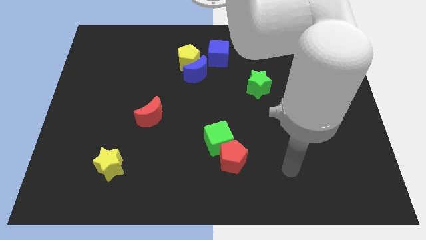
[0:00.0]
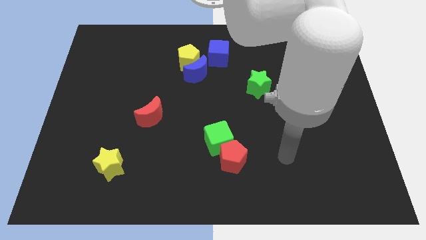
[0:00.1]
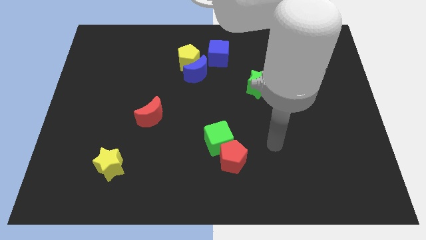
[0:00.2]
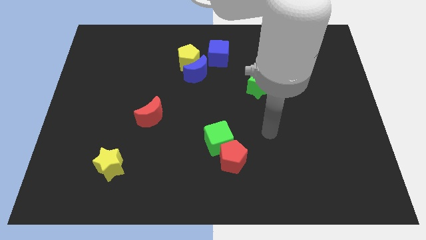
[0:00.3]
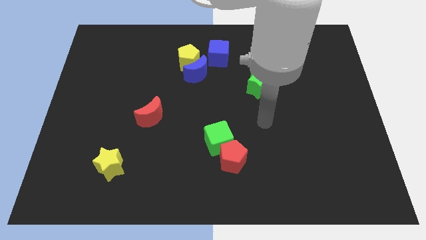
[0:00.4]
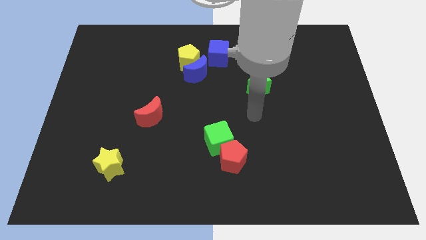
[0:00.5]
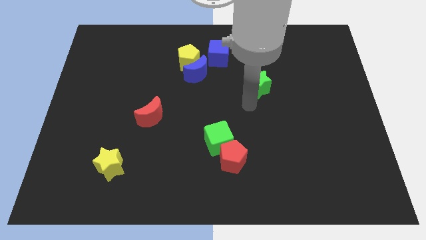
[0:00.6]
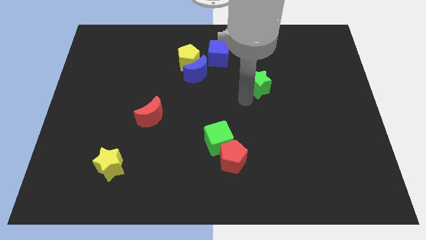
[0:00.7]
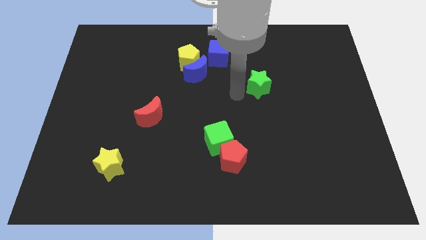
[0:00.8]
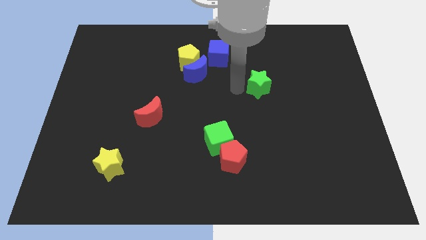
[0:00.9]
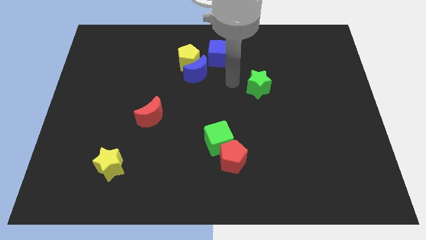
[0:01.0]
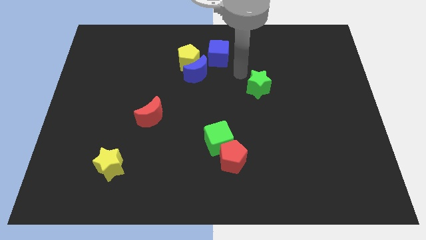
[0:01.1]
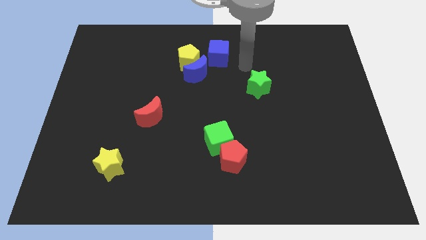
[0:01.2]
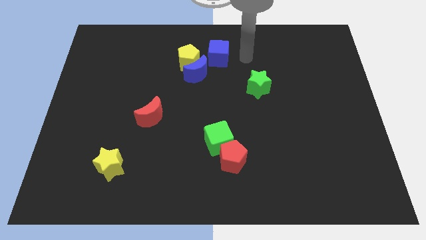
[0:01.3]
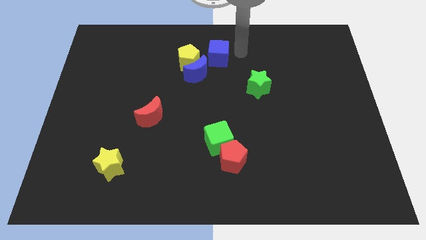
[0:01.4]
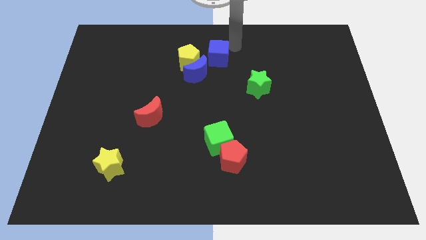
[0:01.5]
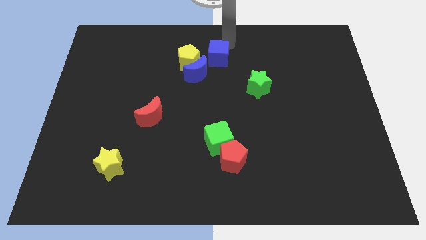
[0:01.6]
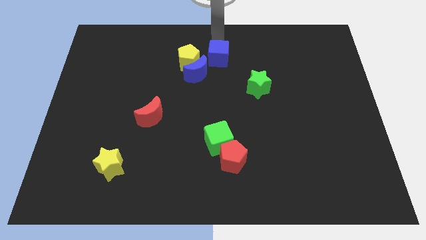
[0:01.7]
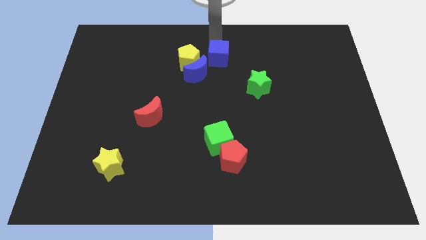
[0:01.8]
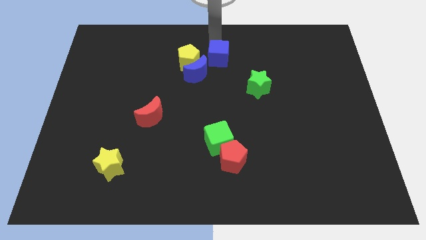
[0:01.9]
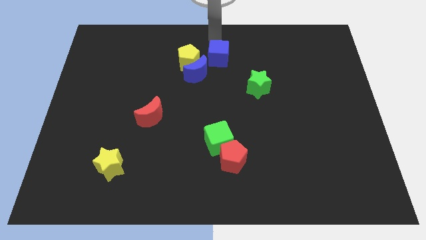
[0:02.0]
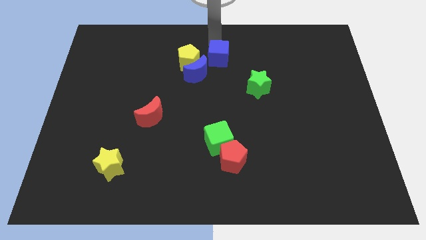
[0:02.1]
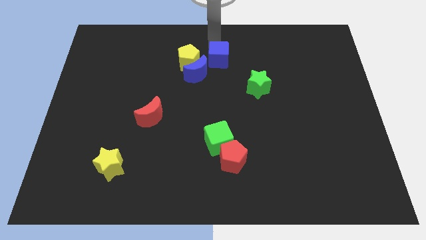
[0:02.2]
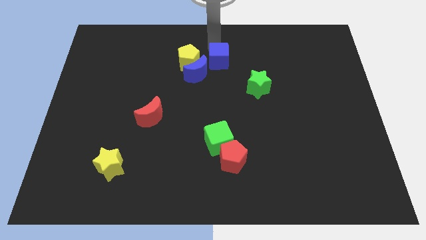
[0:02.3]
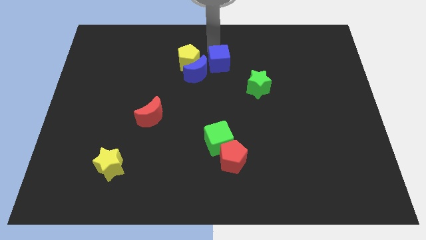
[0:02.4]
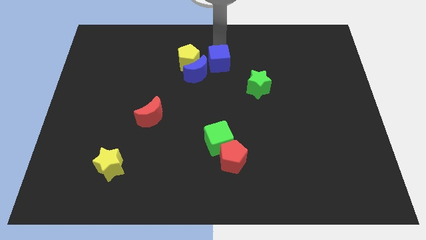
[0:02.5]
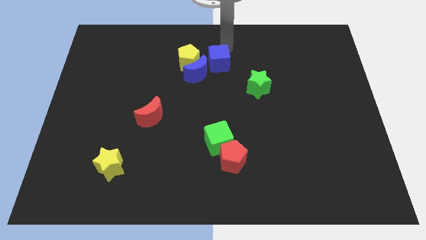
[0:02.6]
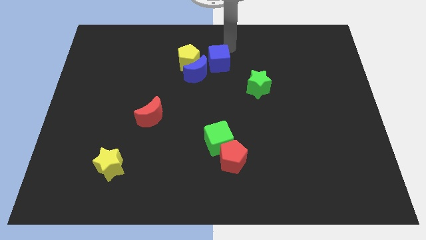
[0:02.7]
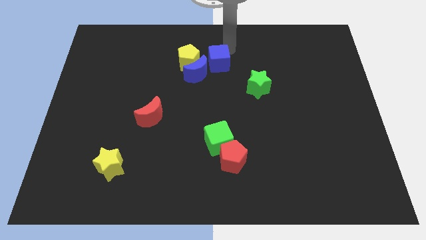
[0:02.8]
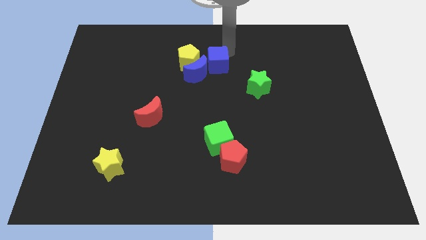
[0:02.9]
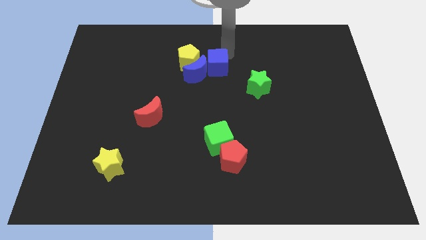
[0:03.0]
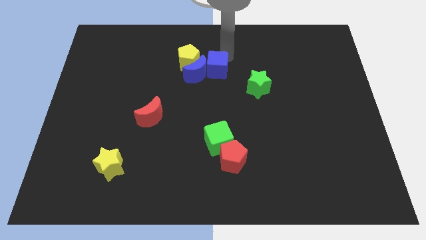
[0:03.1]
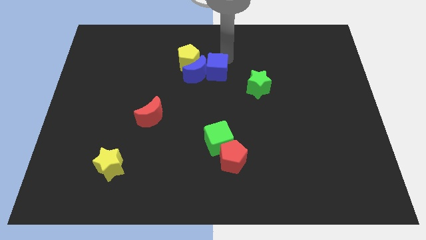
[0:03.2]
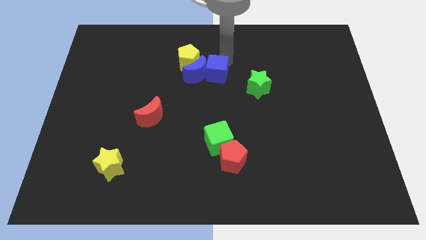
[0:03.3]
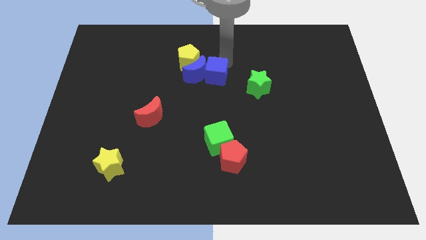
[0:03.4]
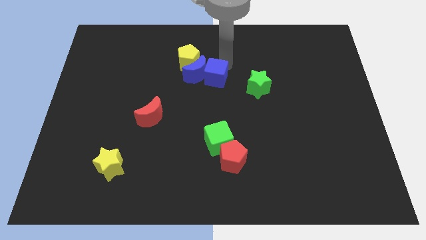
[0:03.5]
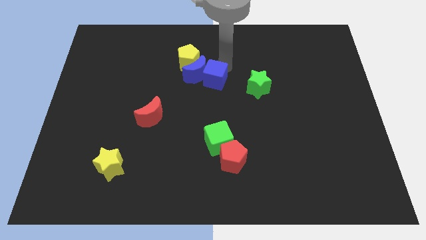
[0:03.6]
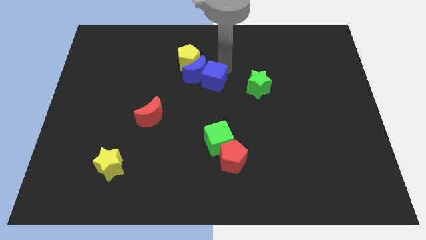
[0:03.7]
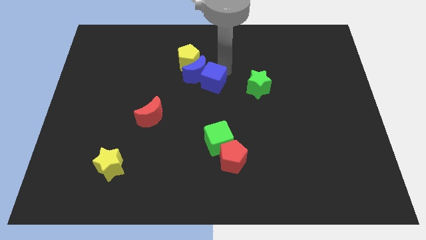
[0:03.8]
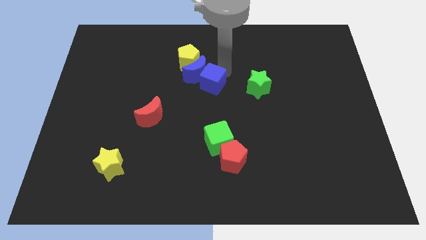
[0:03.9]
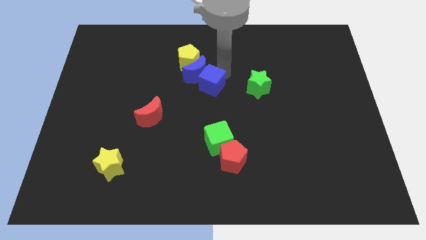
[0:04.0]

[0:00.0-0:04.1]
move the blue cube a bit diagonally down and to the left

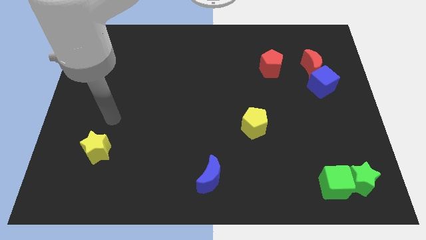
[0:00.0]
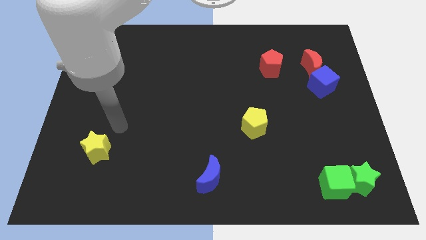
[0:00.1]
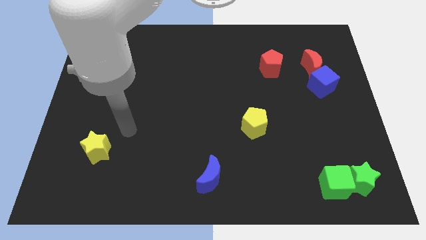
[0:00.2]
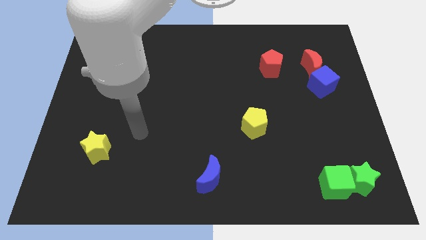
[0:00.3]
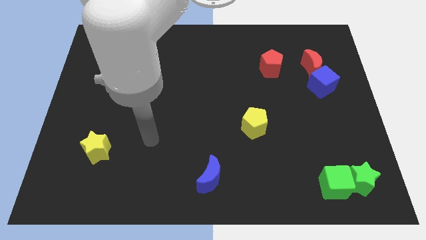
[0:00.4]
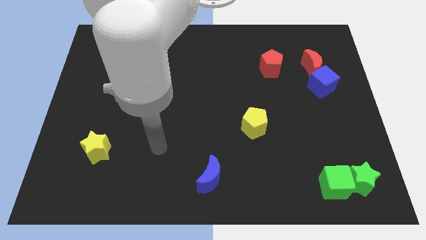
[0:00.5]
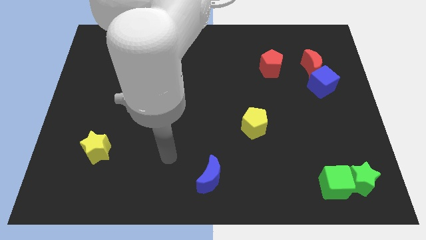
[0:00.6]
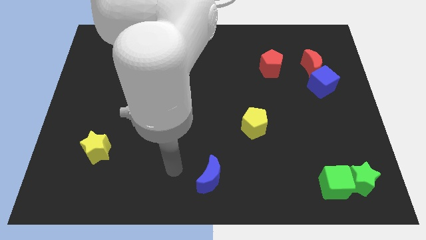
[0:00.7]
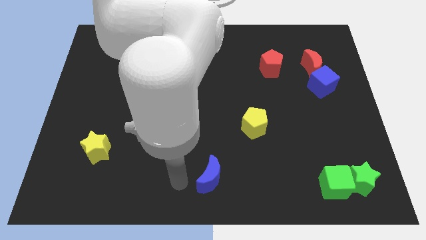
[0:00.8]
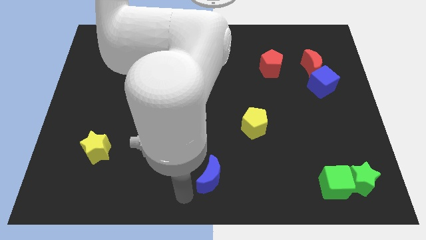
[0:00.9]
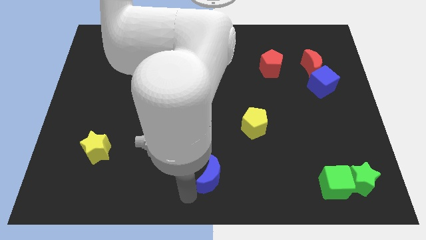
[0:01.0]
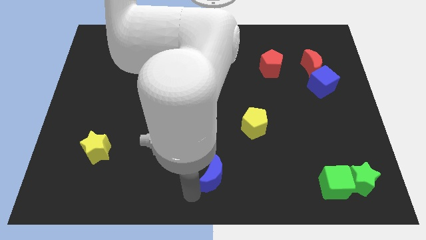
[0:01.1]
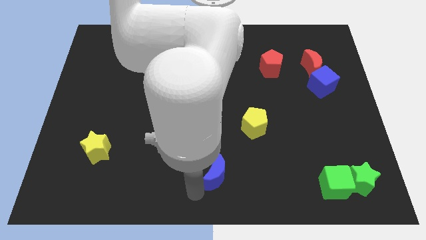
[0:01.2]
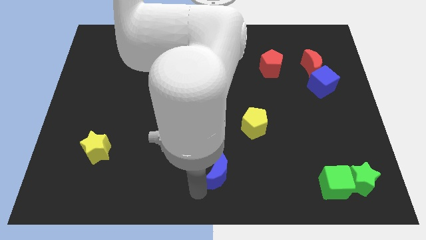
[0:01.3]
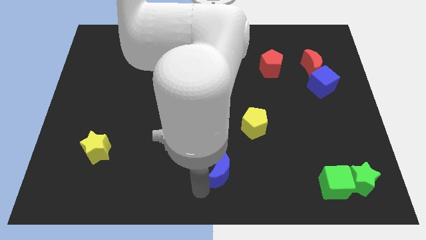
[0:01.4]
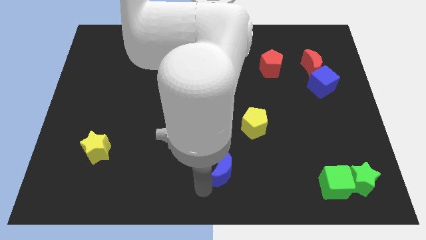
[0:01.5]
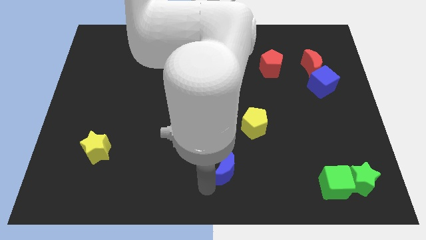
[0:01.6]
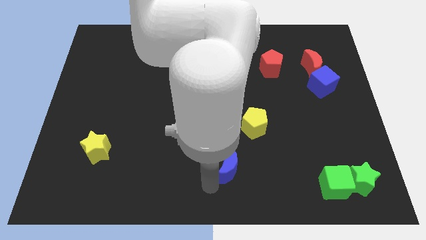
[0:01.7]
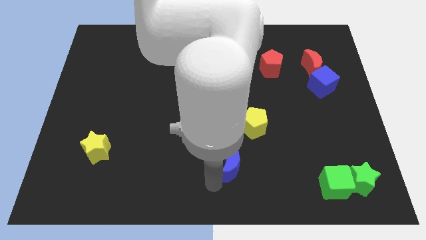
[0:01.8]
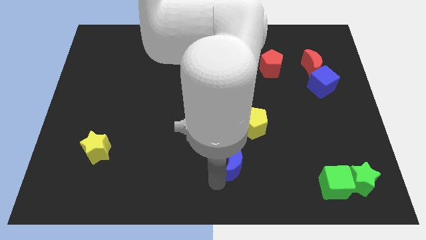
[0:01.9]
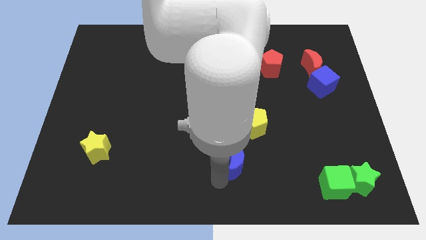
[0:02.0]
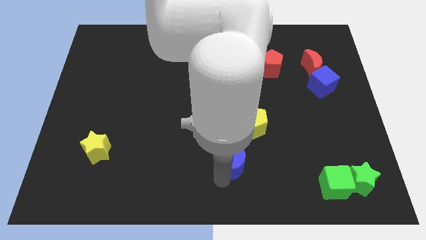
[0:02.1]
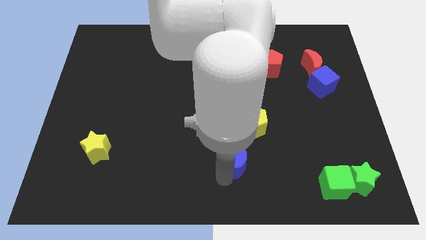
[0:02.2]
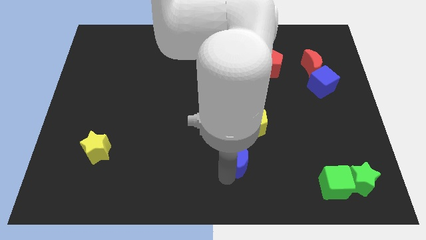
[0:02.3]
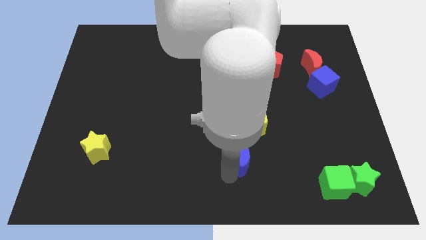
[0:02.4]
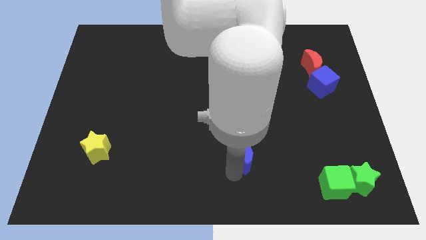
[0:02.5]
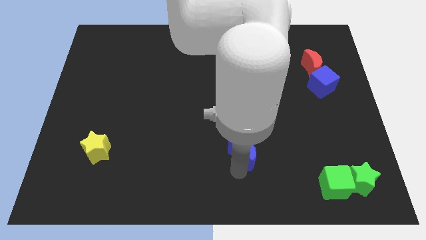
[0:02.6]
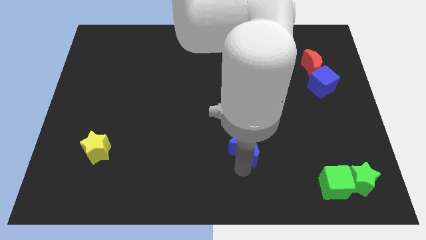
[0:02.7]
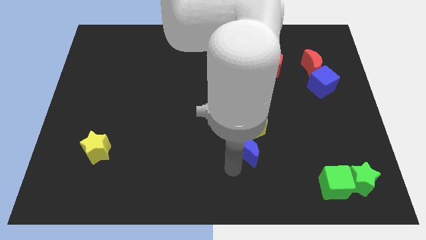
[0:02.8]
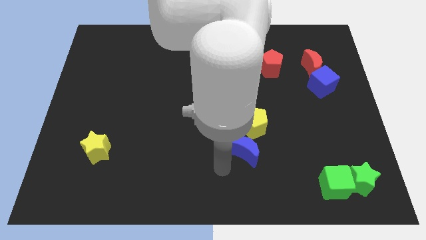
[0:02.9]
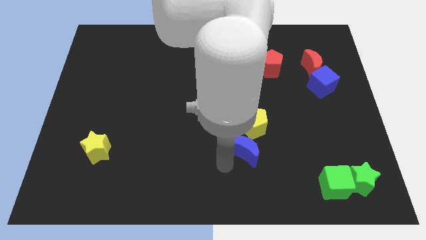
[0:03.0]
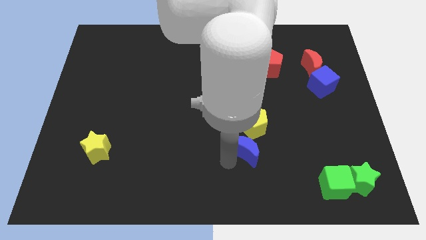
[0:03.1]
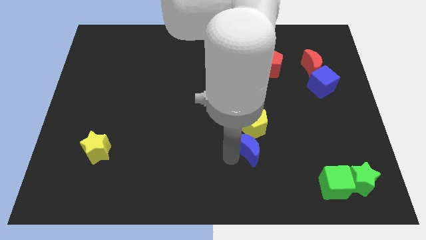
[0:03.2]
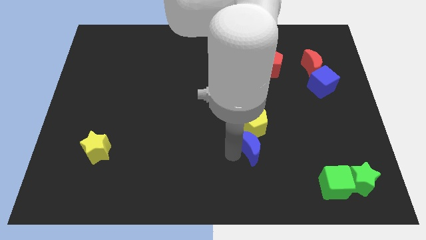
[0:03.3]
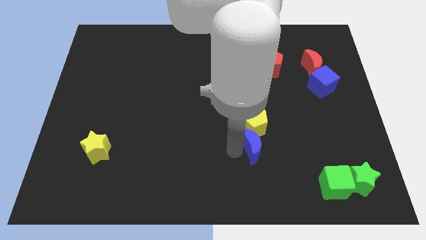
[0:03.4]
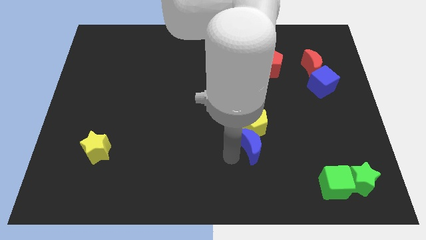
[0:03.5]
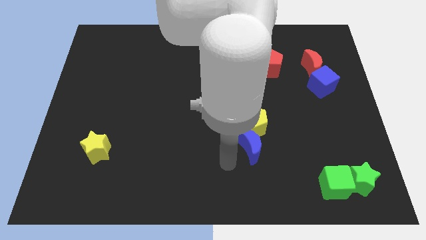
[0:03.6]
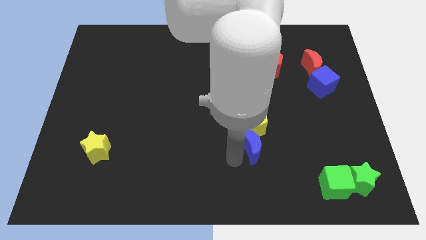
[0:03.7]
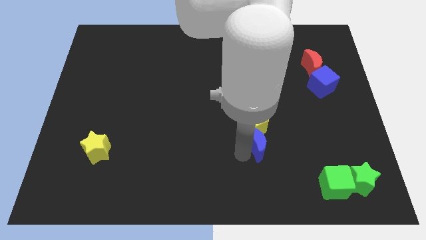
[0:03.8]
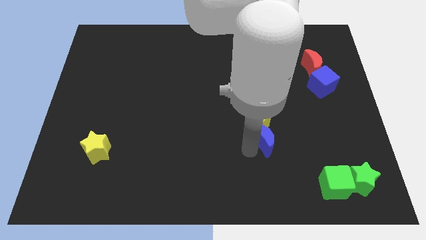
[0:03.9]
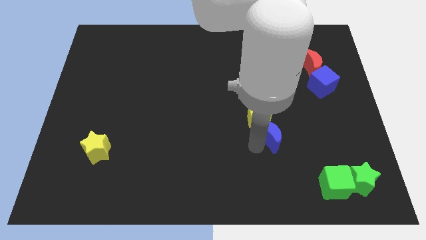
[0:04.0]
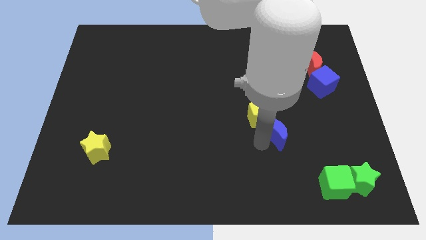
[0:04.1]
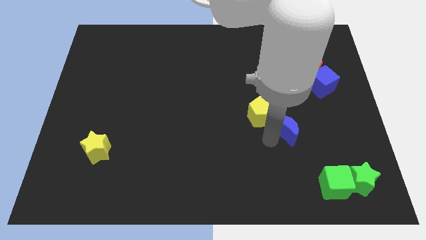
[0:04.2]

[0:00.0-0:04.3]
move the blue moon diagonally up and right
